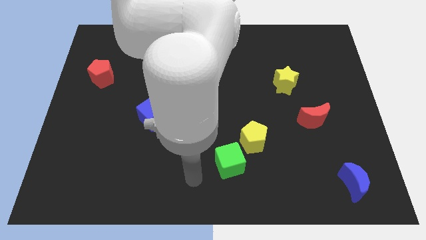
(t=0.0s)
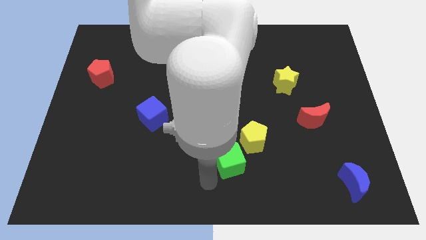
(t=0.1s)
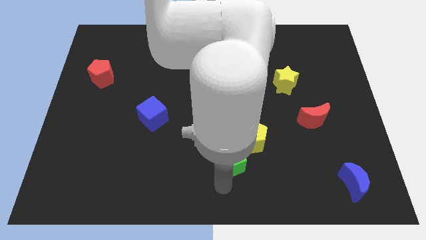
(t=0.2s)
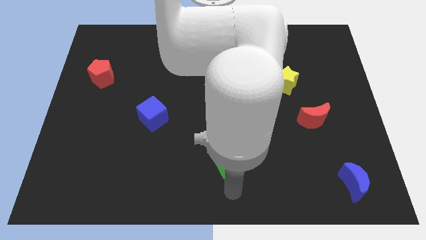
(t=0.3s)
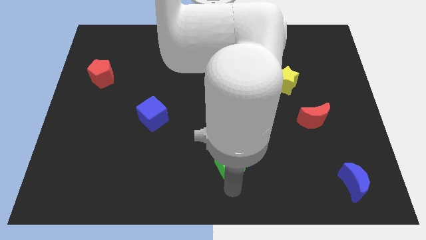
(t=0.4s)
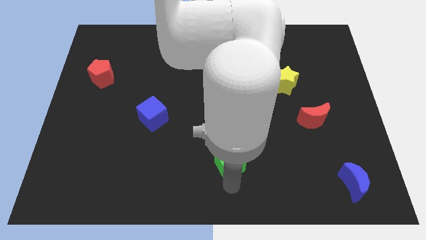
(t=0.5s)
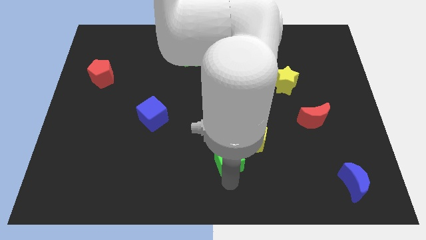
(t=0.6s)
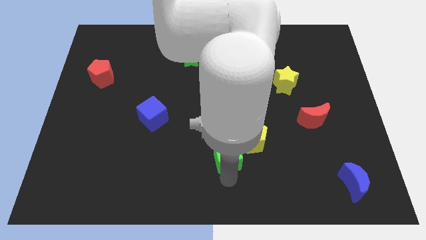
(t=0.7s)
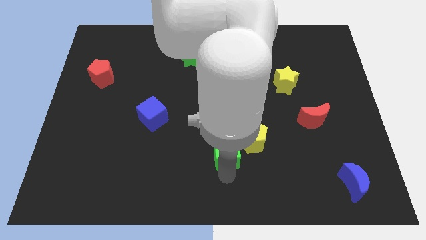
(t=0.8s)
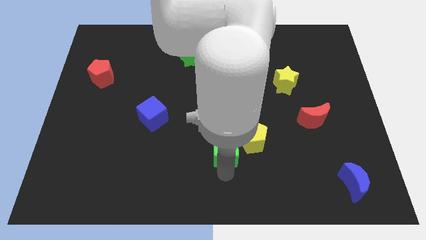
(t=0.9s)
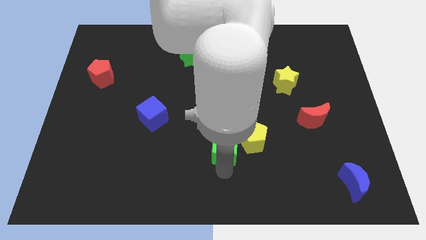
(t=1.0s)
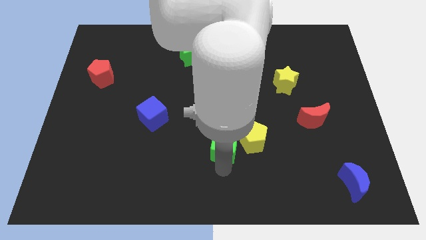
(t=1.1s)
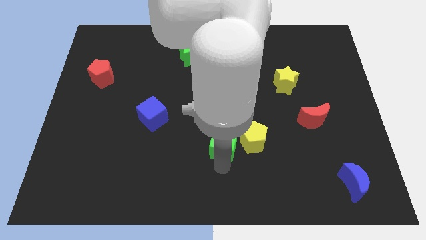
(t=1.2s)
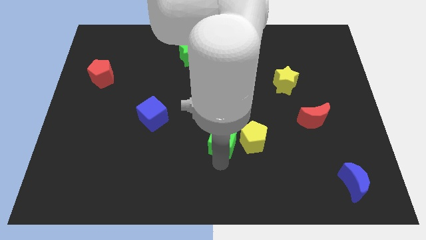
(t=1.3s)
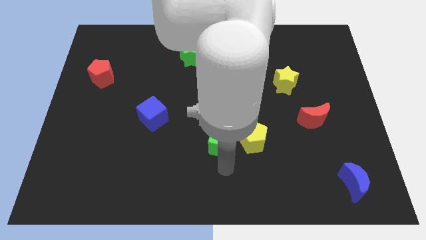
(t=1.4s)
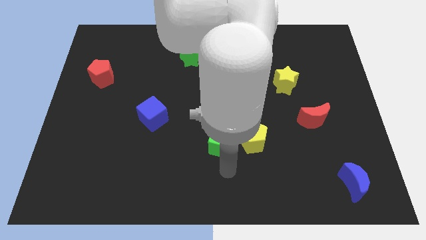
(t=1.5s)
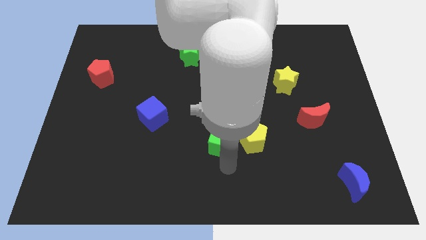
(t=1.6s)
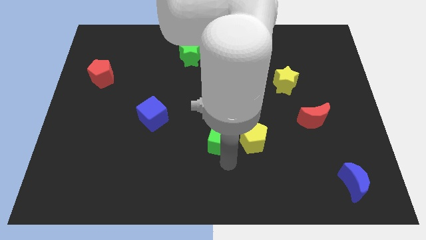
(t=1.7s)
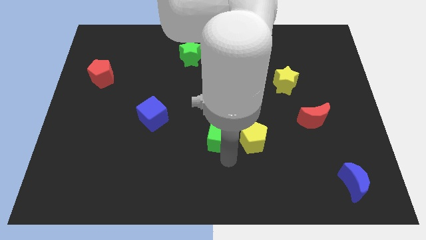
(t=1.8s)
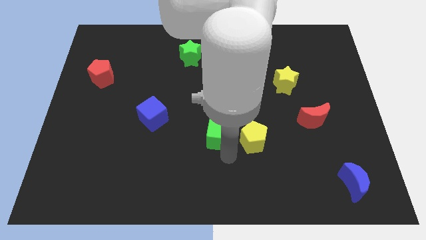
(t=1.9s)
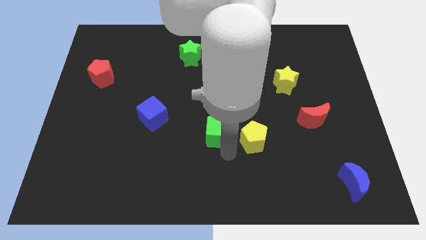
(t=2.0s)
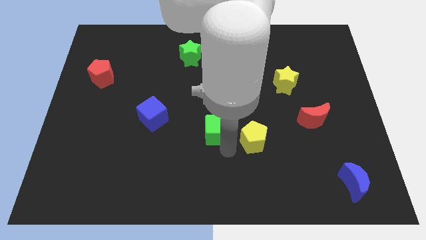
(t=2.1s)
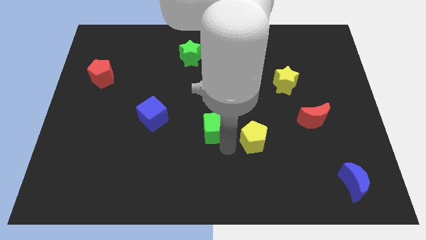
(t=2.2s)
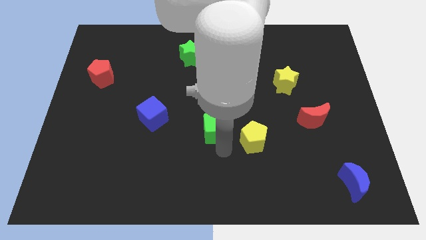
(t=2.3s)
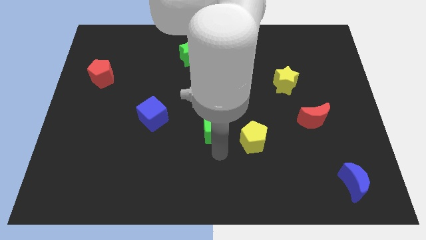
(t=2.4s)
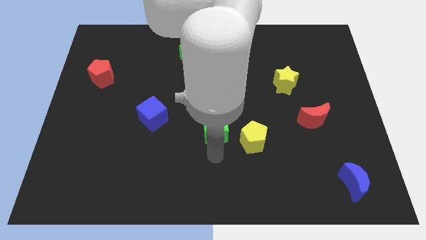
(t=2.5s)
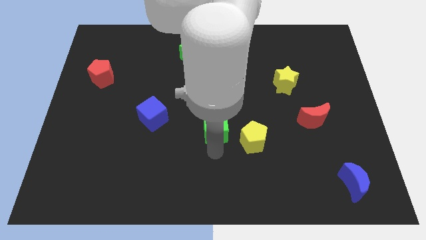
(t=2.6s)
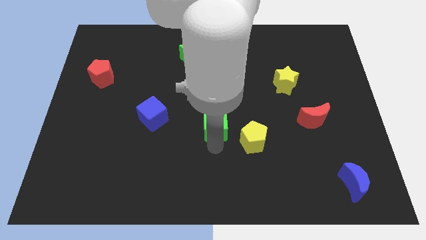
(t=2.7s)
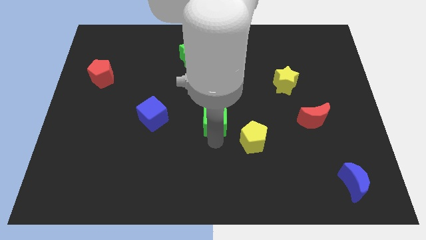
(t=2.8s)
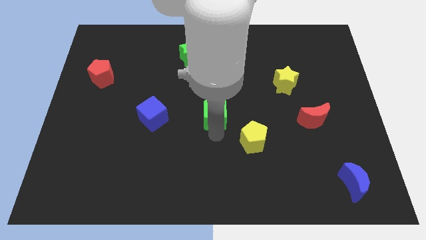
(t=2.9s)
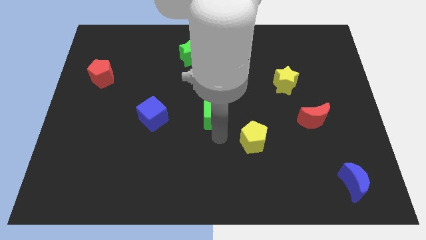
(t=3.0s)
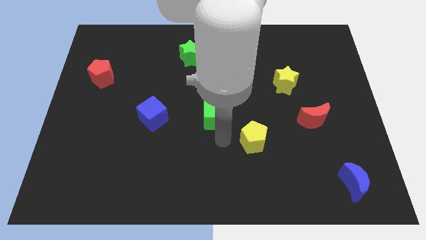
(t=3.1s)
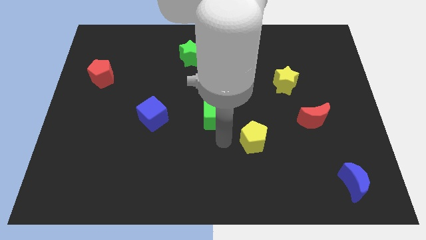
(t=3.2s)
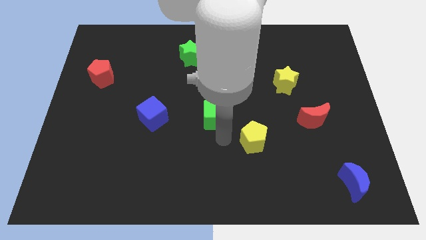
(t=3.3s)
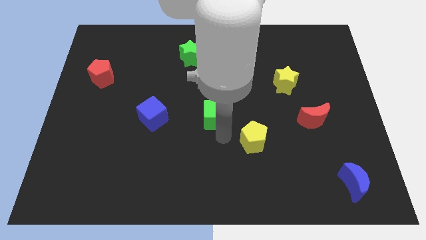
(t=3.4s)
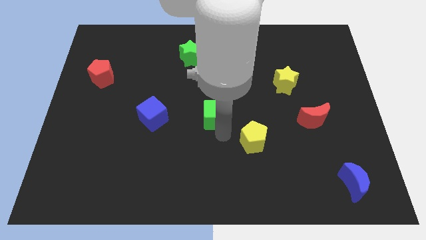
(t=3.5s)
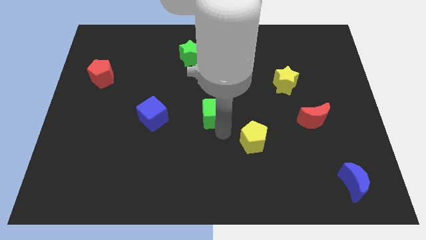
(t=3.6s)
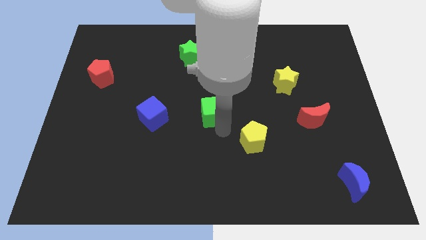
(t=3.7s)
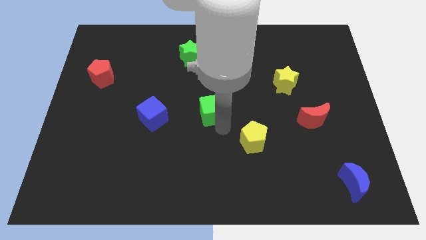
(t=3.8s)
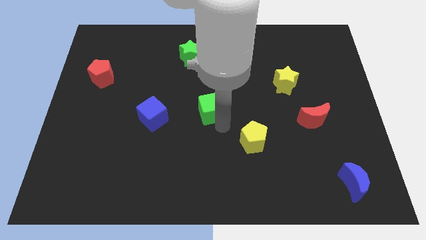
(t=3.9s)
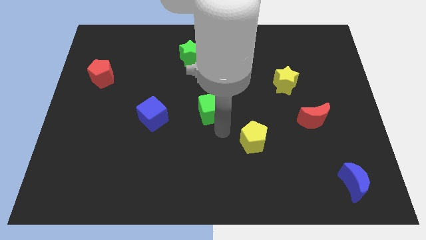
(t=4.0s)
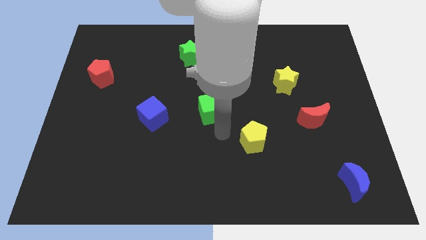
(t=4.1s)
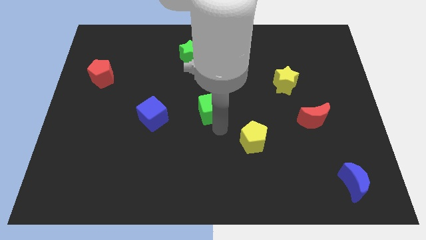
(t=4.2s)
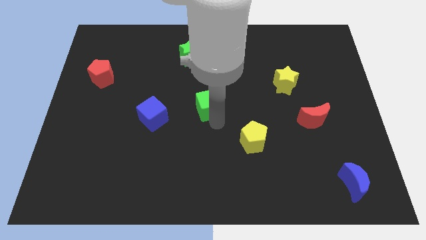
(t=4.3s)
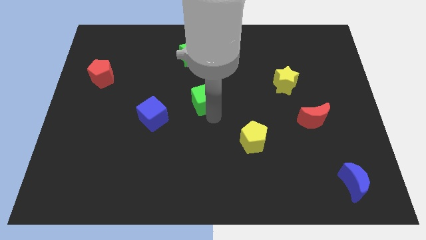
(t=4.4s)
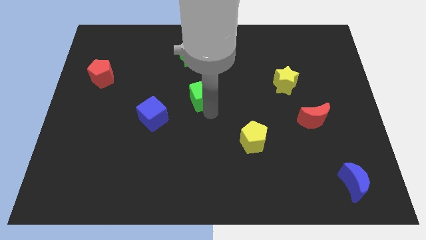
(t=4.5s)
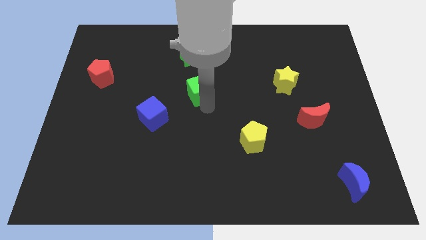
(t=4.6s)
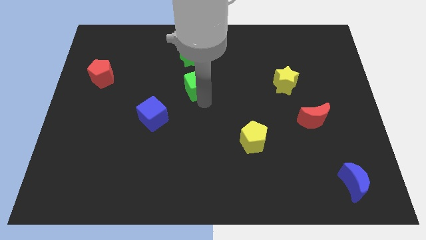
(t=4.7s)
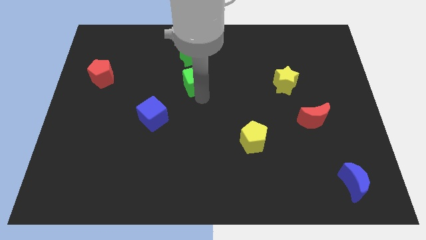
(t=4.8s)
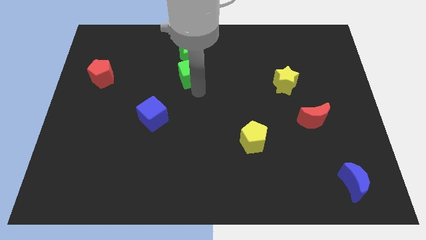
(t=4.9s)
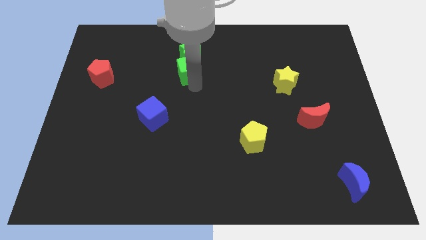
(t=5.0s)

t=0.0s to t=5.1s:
put the green cube close to the green star

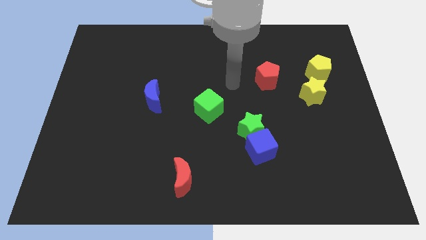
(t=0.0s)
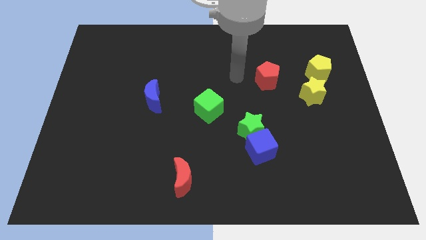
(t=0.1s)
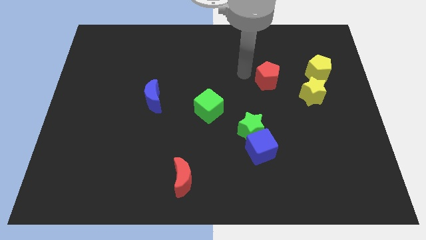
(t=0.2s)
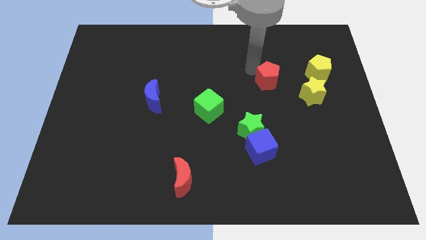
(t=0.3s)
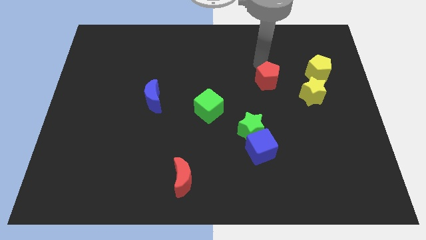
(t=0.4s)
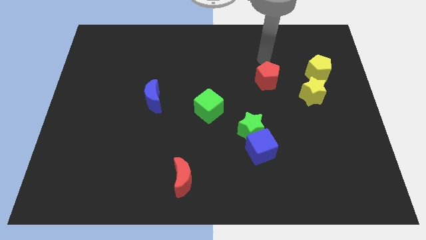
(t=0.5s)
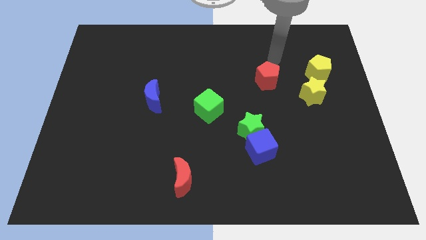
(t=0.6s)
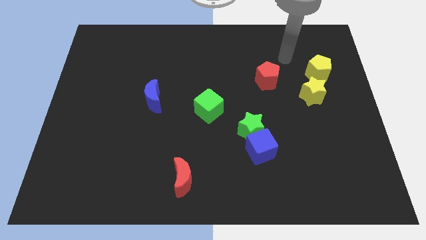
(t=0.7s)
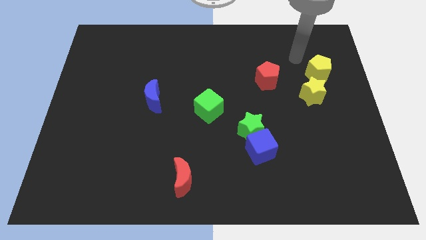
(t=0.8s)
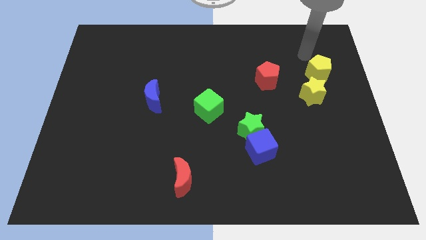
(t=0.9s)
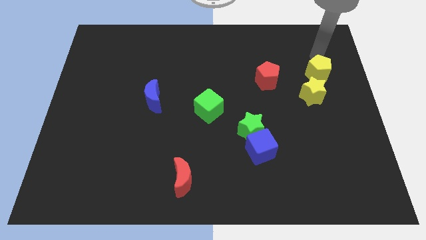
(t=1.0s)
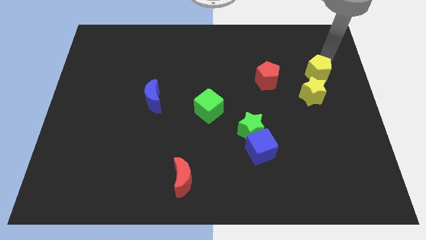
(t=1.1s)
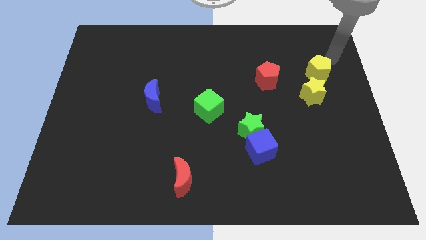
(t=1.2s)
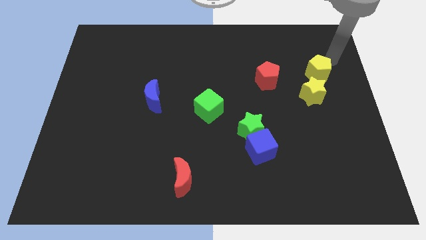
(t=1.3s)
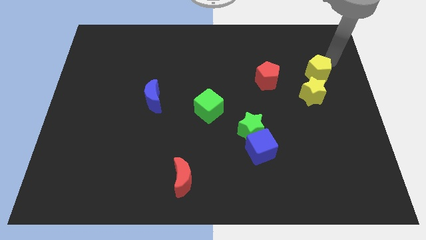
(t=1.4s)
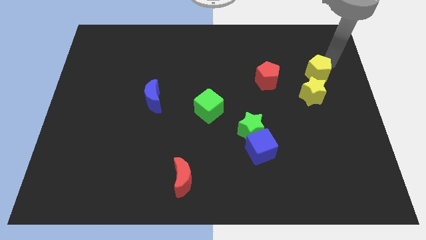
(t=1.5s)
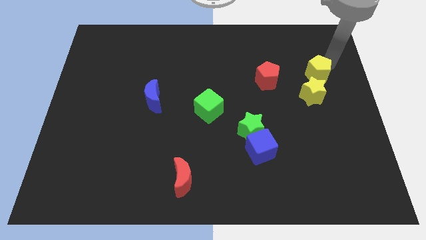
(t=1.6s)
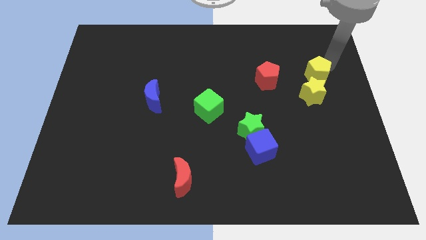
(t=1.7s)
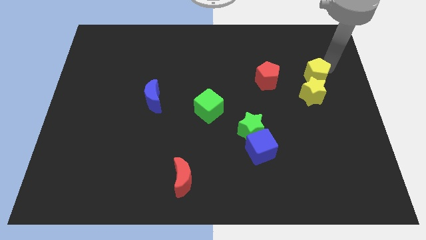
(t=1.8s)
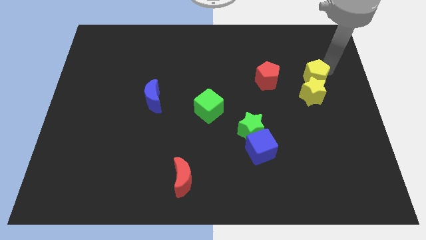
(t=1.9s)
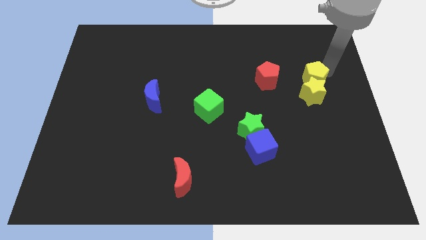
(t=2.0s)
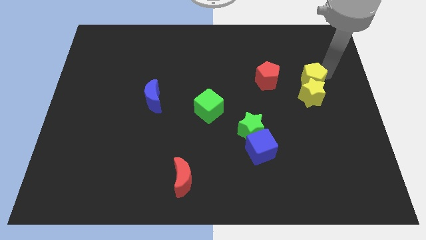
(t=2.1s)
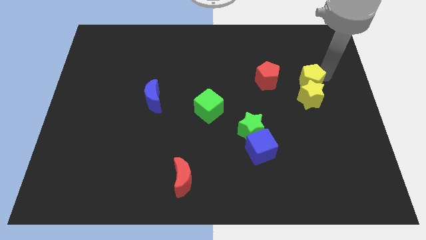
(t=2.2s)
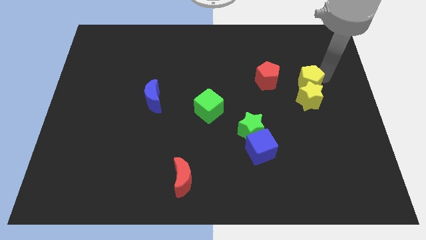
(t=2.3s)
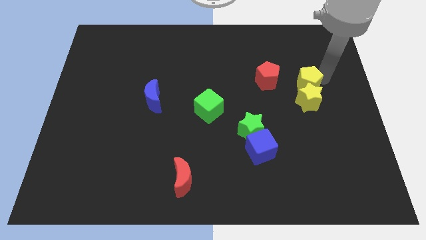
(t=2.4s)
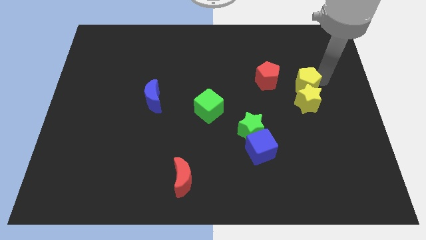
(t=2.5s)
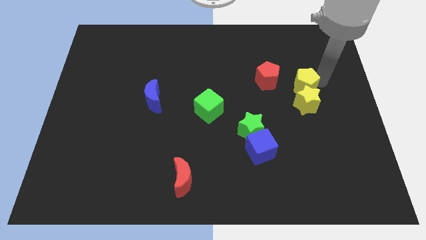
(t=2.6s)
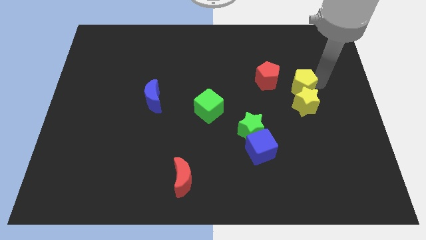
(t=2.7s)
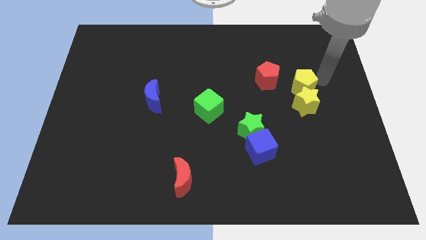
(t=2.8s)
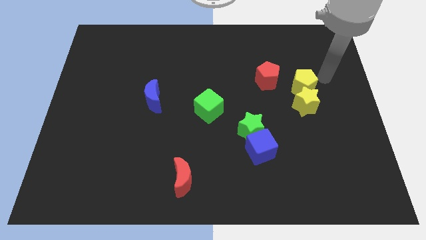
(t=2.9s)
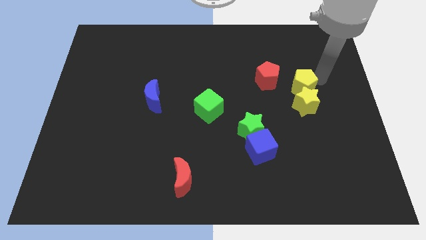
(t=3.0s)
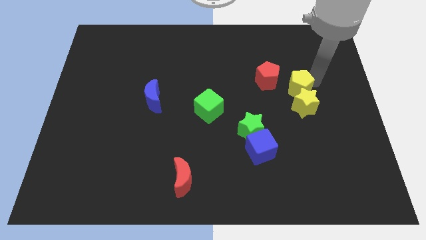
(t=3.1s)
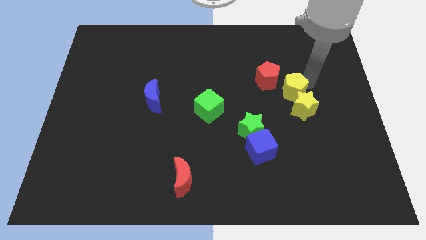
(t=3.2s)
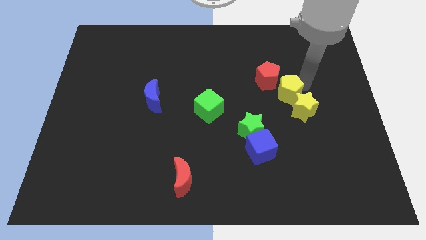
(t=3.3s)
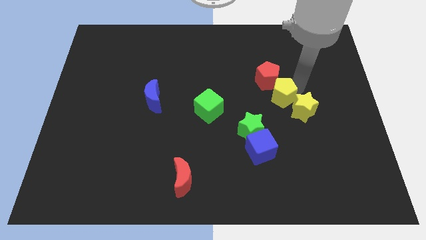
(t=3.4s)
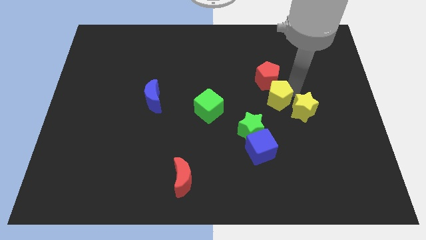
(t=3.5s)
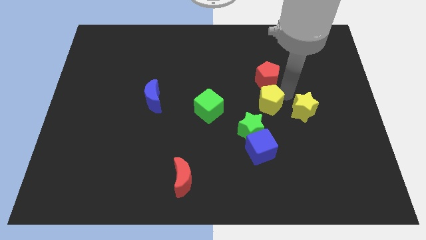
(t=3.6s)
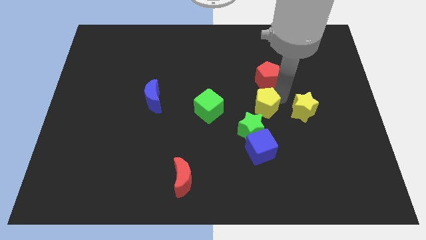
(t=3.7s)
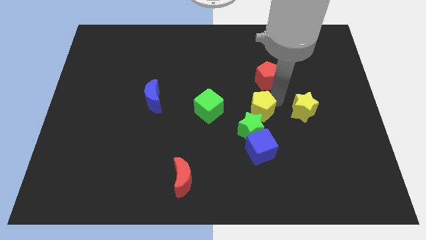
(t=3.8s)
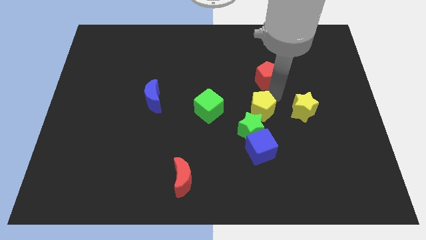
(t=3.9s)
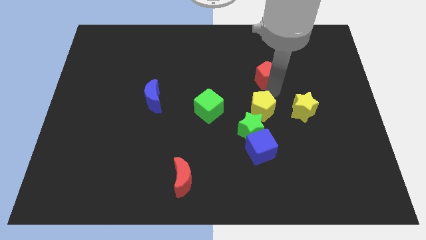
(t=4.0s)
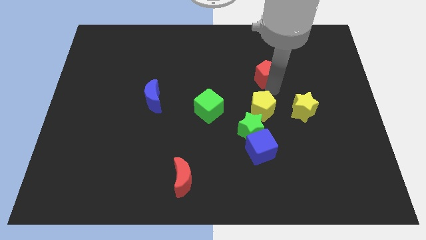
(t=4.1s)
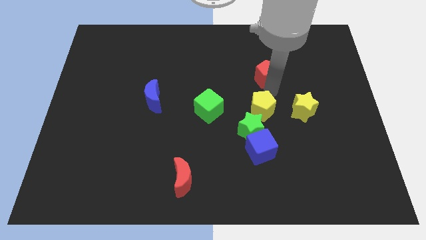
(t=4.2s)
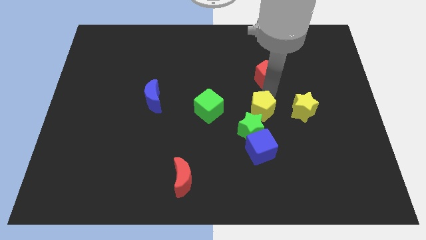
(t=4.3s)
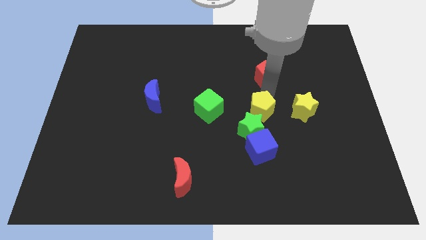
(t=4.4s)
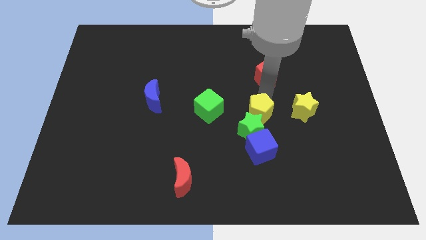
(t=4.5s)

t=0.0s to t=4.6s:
push the yellow pentagon towards the green star
